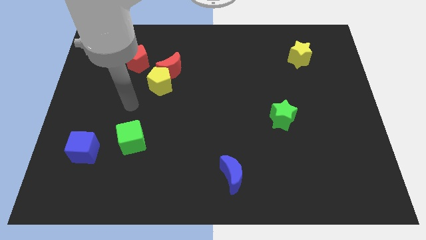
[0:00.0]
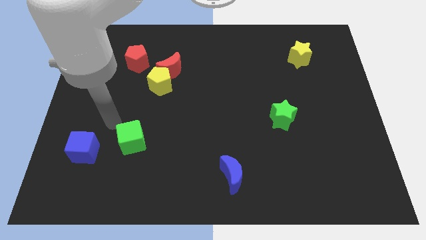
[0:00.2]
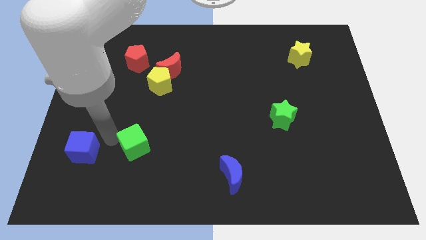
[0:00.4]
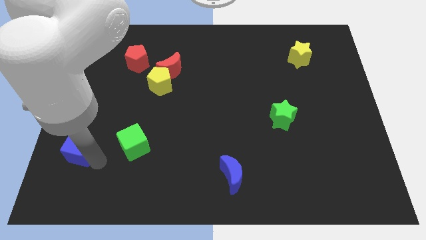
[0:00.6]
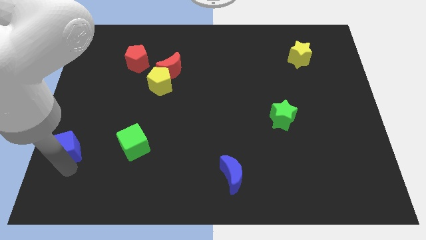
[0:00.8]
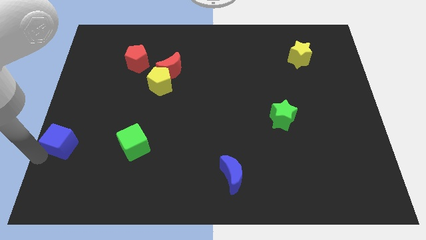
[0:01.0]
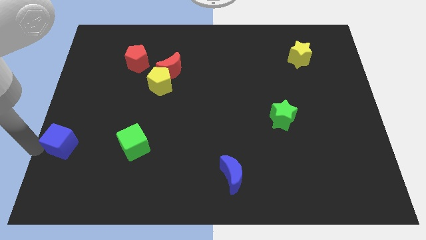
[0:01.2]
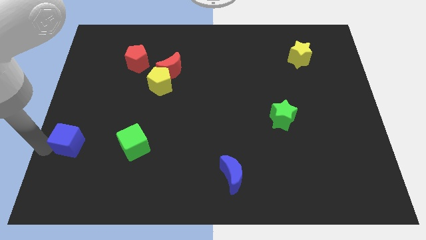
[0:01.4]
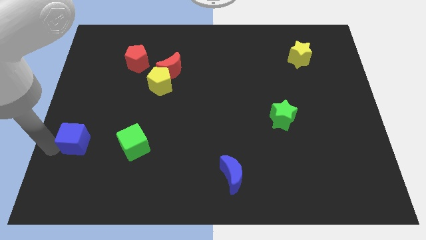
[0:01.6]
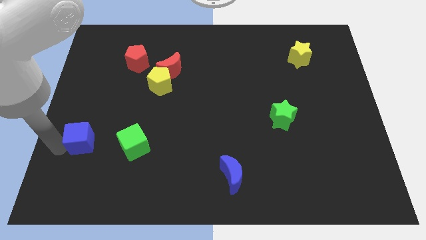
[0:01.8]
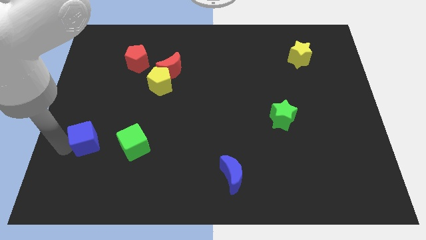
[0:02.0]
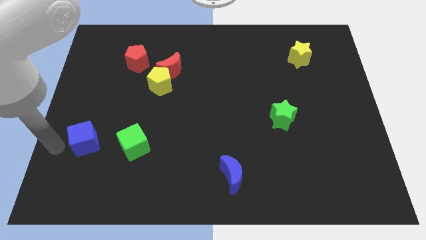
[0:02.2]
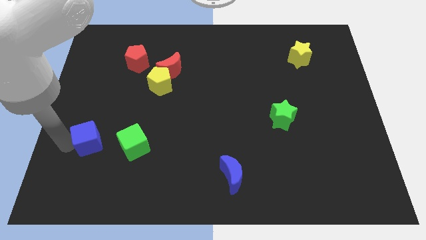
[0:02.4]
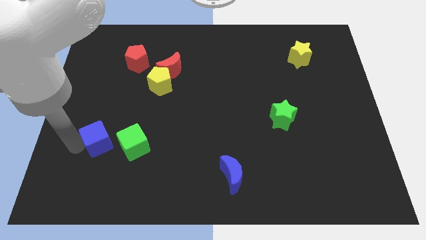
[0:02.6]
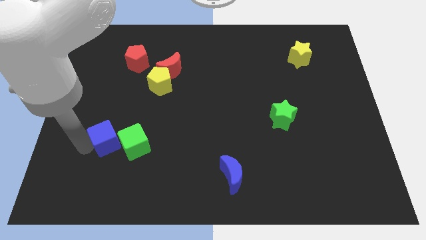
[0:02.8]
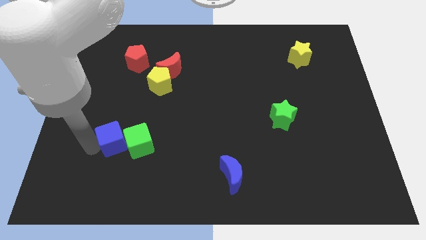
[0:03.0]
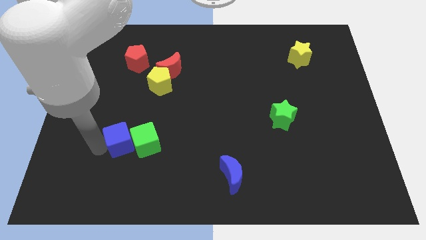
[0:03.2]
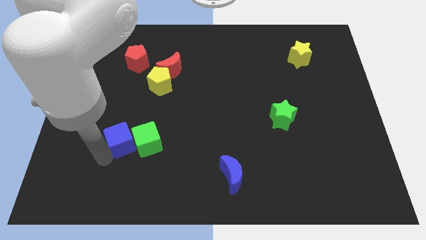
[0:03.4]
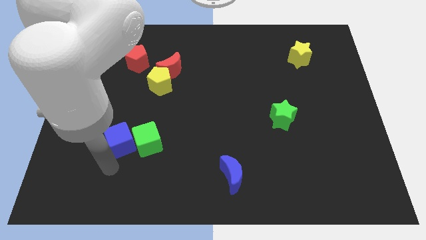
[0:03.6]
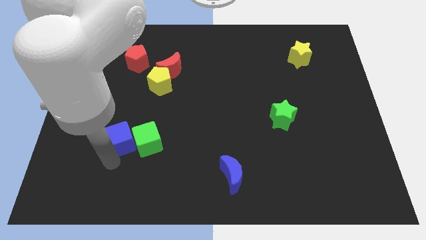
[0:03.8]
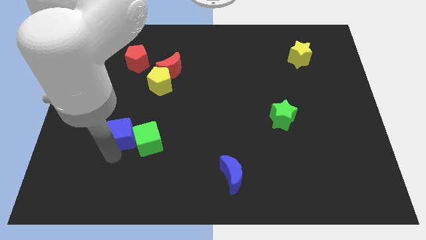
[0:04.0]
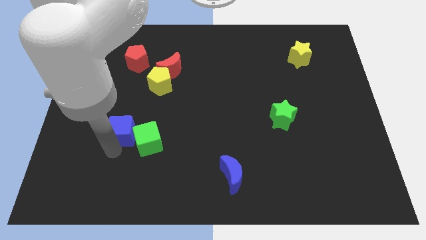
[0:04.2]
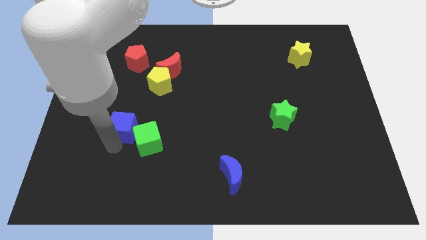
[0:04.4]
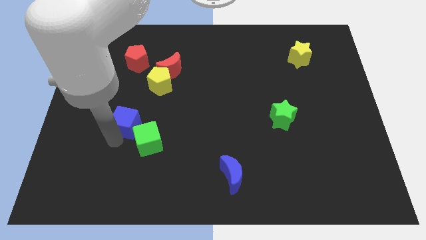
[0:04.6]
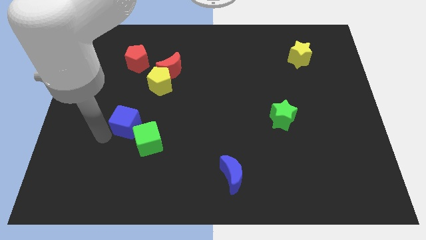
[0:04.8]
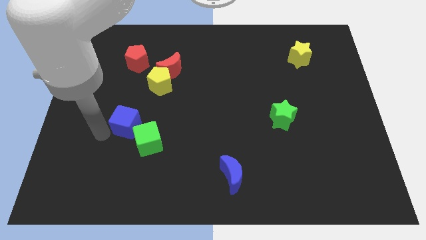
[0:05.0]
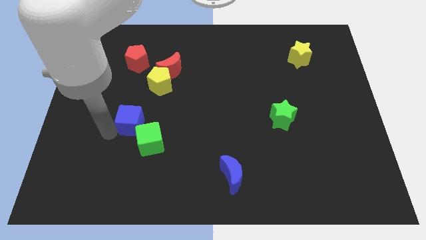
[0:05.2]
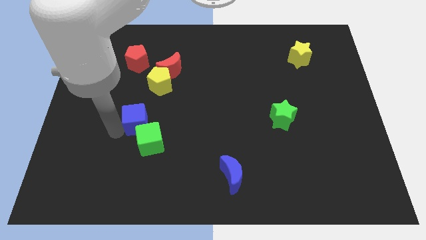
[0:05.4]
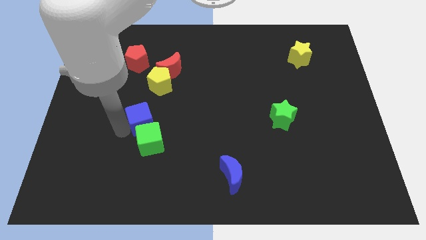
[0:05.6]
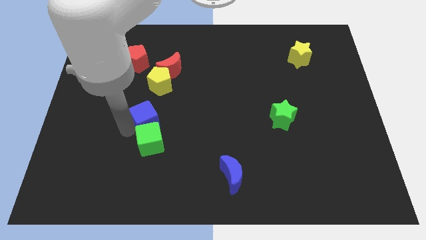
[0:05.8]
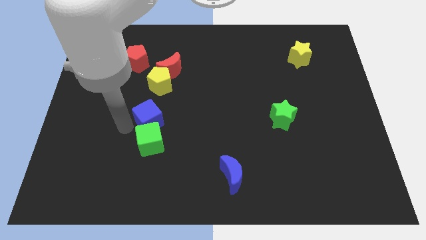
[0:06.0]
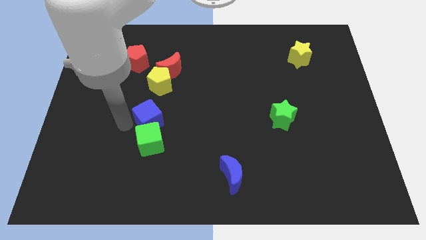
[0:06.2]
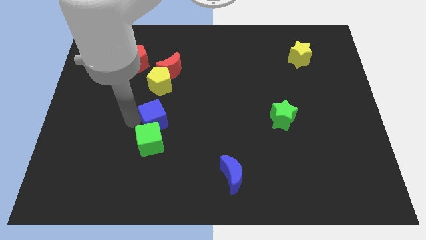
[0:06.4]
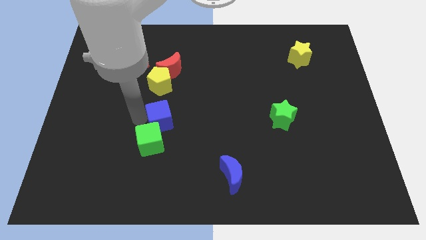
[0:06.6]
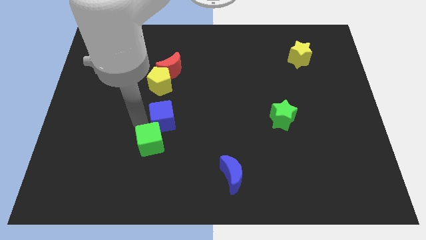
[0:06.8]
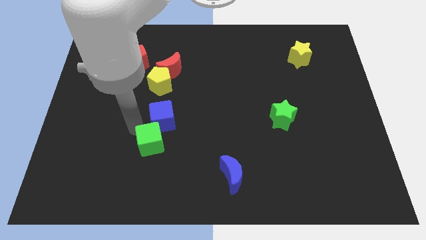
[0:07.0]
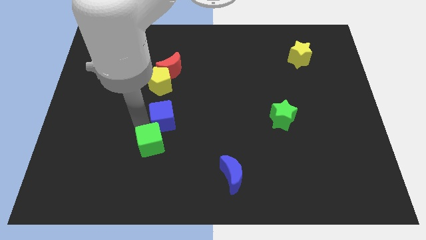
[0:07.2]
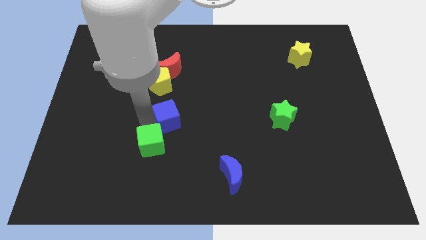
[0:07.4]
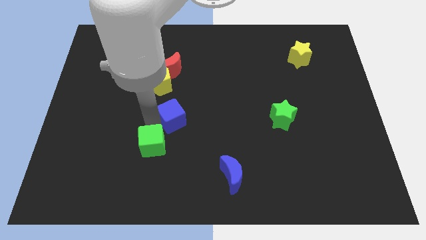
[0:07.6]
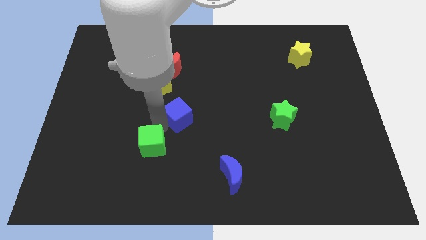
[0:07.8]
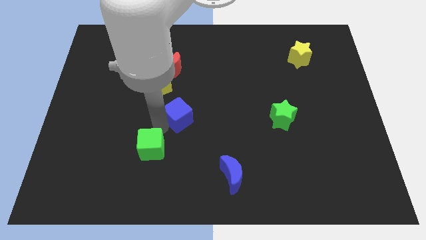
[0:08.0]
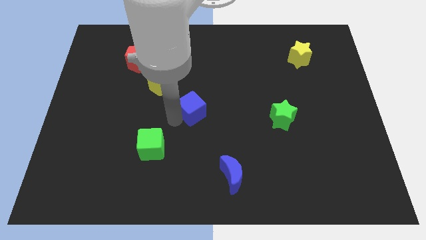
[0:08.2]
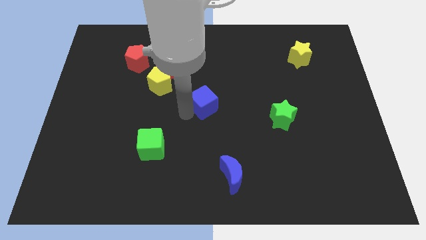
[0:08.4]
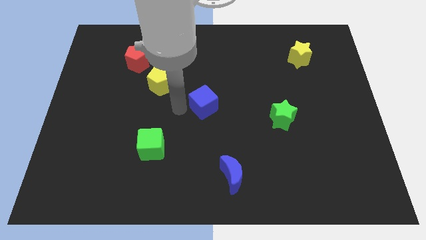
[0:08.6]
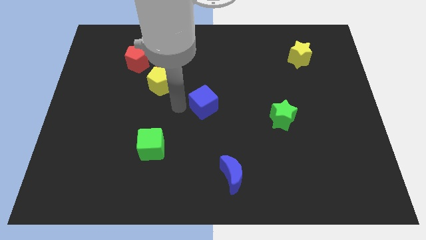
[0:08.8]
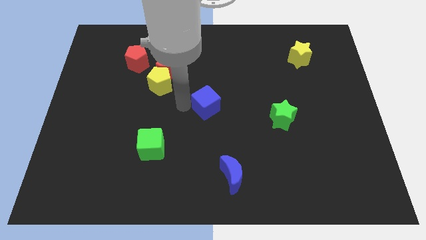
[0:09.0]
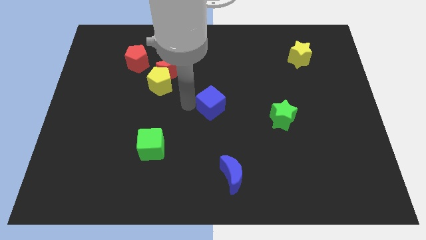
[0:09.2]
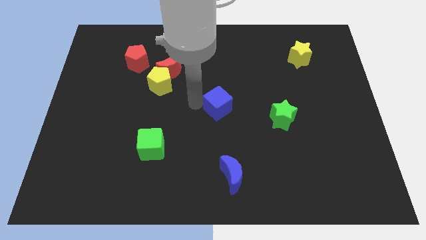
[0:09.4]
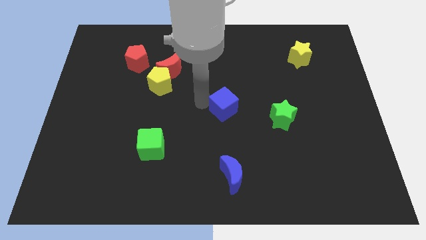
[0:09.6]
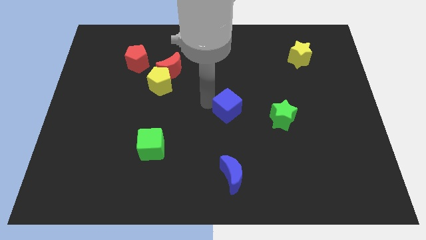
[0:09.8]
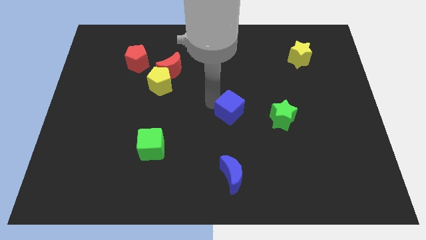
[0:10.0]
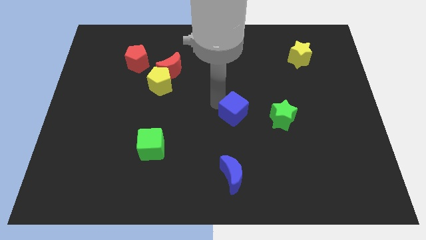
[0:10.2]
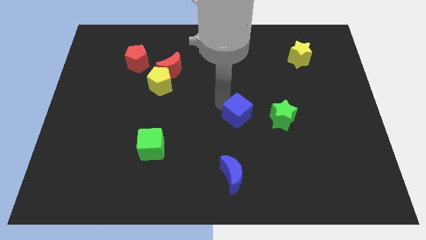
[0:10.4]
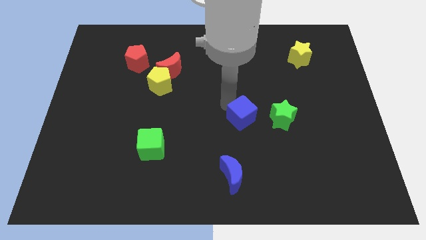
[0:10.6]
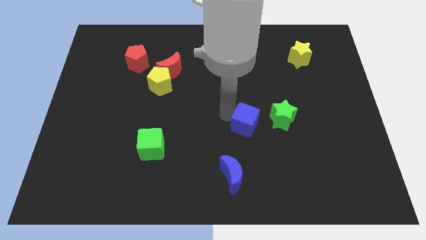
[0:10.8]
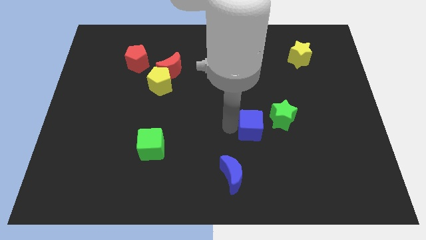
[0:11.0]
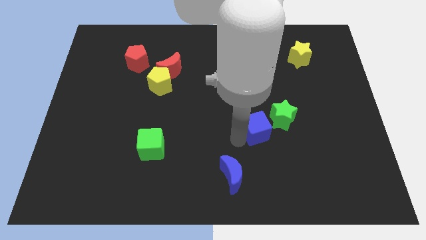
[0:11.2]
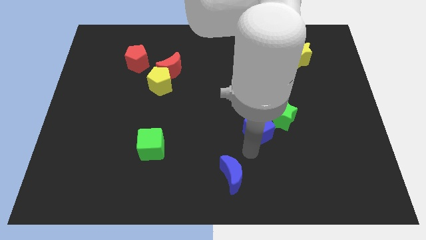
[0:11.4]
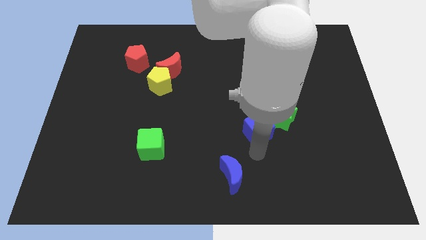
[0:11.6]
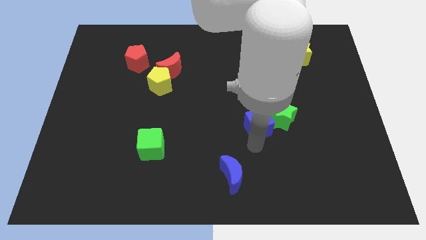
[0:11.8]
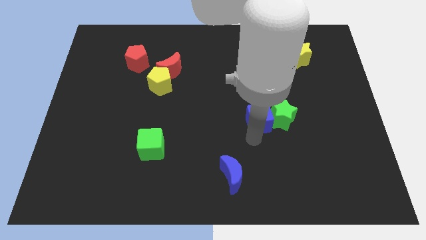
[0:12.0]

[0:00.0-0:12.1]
move the blue cube to the top left side of the green star

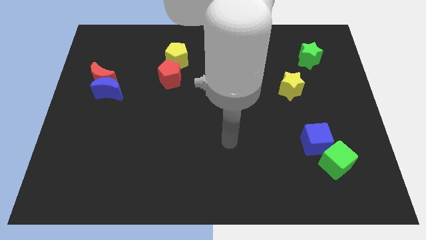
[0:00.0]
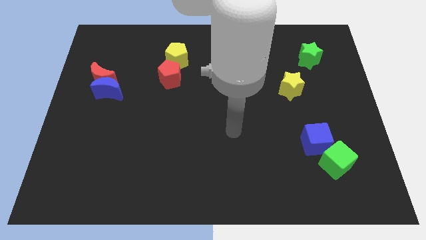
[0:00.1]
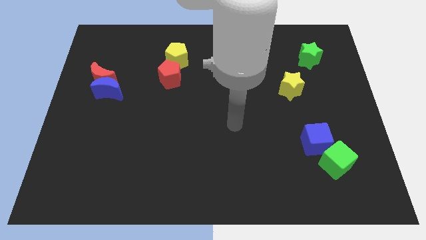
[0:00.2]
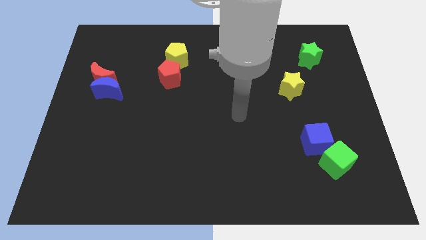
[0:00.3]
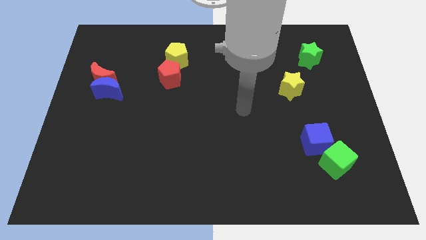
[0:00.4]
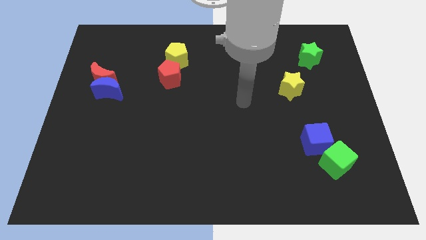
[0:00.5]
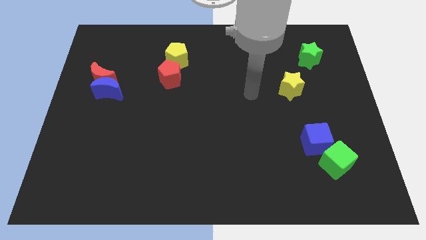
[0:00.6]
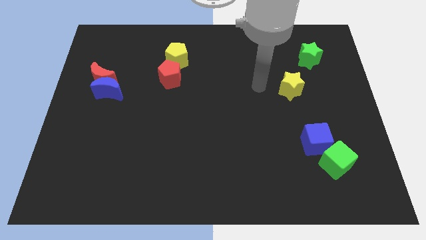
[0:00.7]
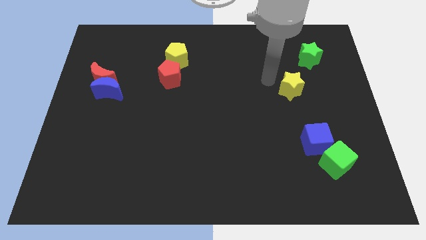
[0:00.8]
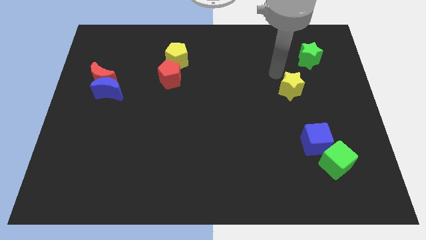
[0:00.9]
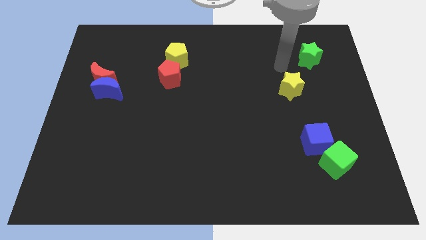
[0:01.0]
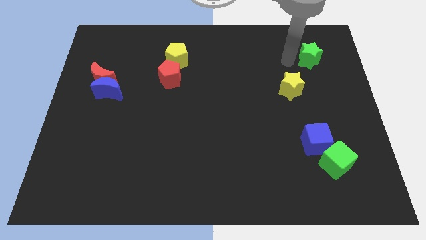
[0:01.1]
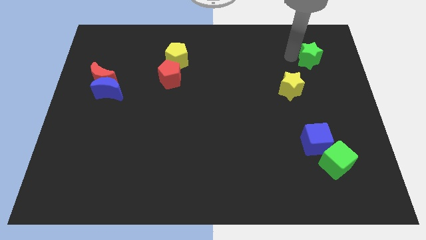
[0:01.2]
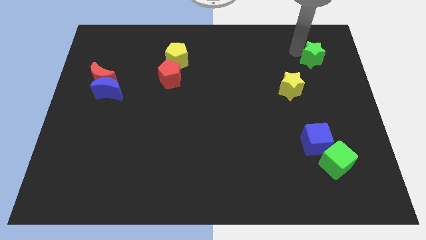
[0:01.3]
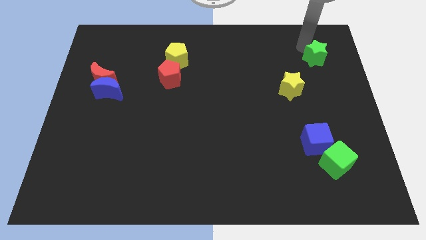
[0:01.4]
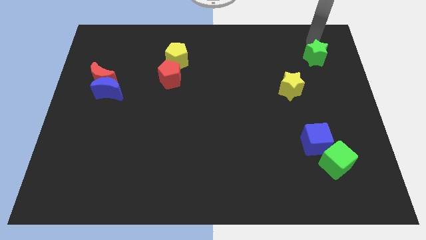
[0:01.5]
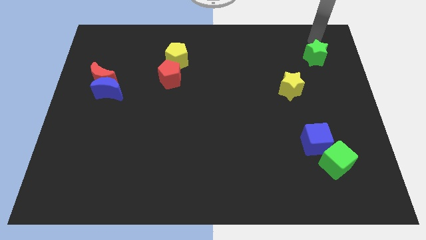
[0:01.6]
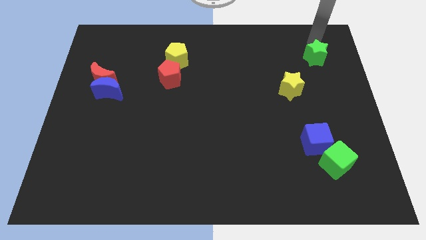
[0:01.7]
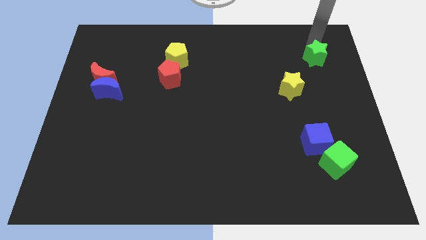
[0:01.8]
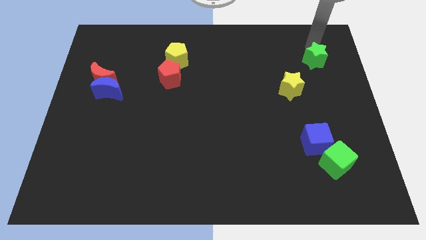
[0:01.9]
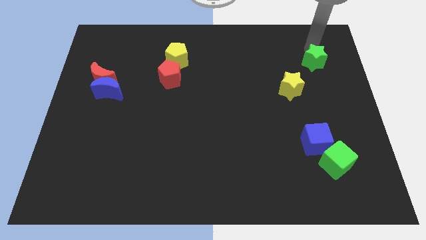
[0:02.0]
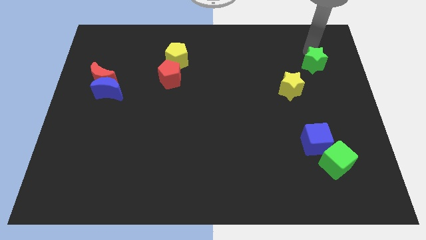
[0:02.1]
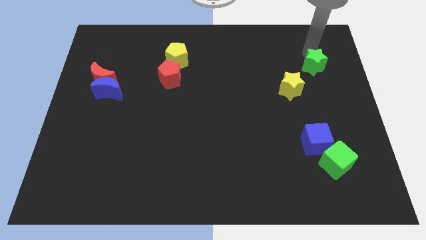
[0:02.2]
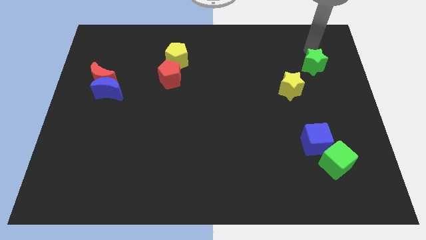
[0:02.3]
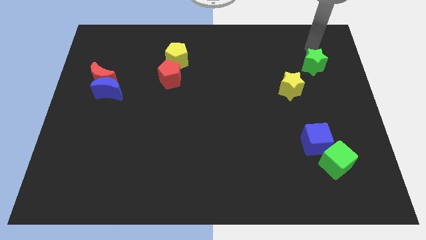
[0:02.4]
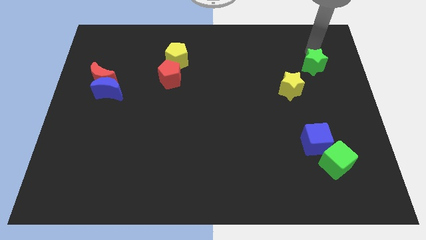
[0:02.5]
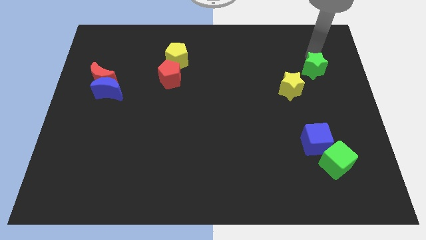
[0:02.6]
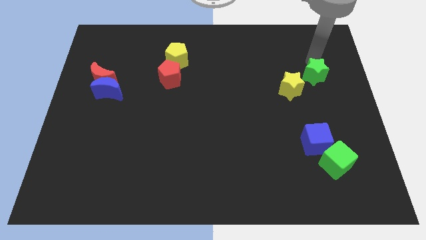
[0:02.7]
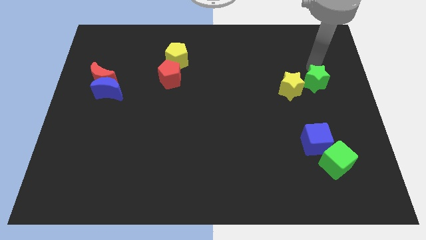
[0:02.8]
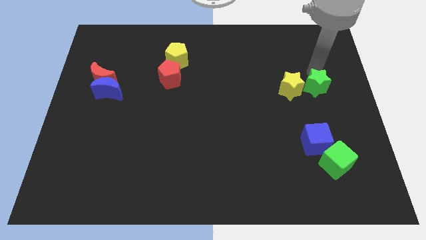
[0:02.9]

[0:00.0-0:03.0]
push the green star to the bottom right of the yellow star
